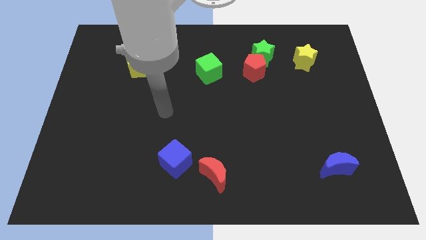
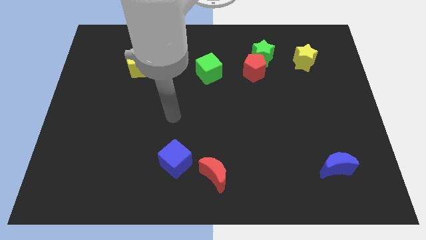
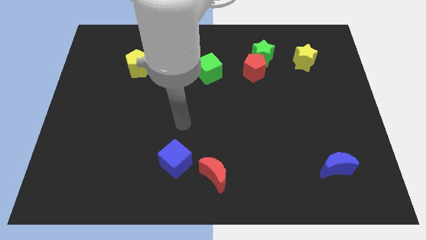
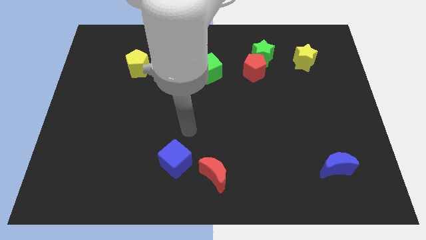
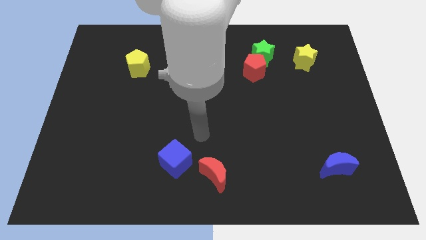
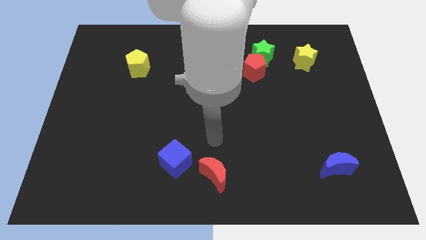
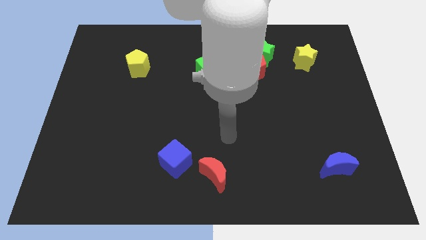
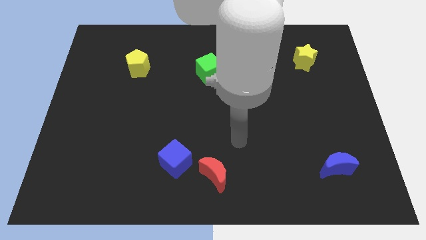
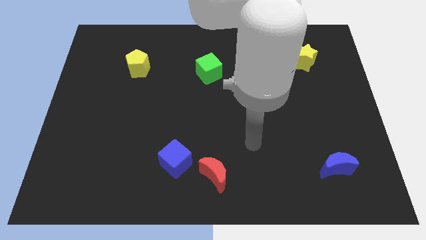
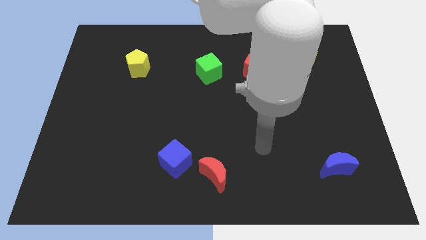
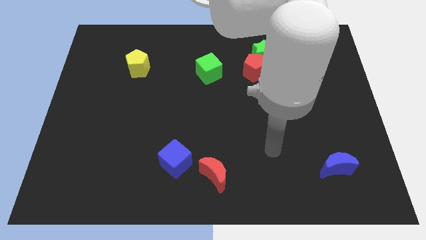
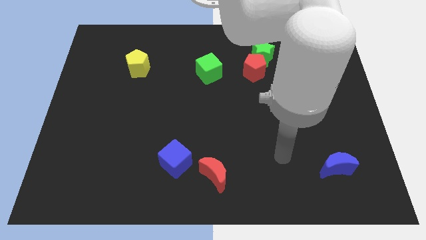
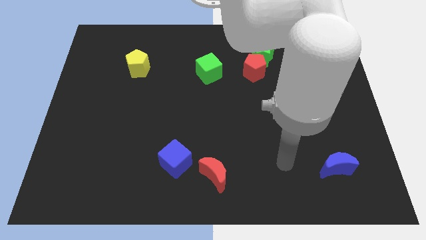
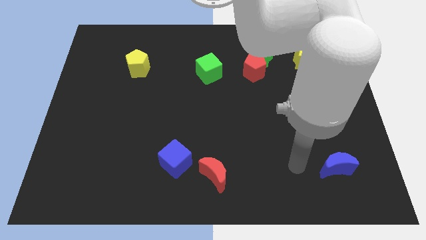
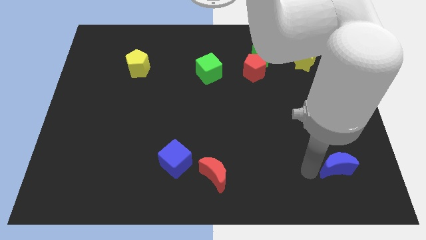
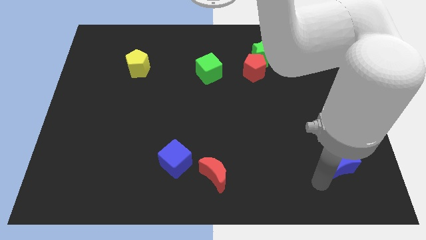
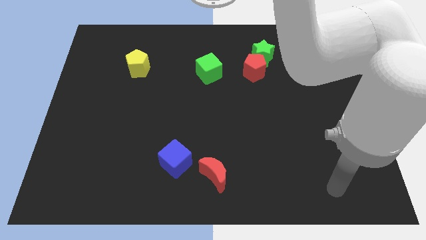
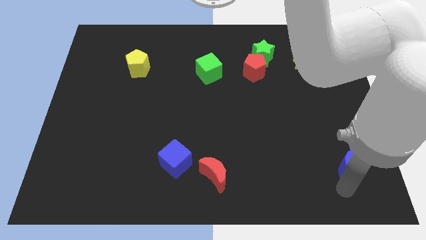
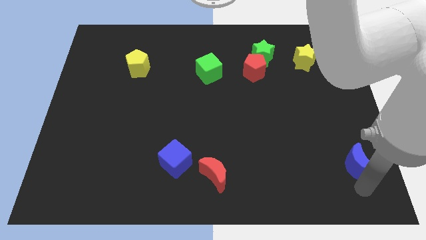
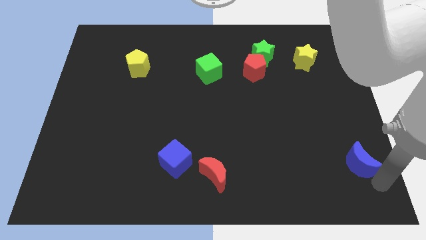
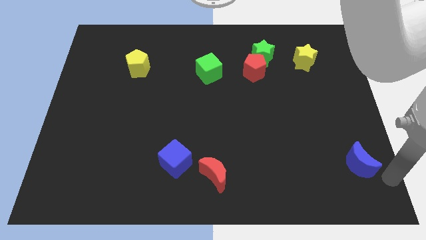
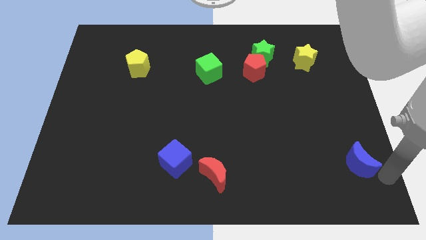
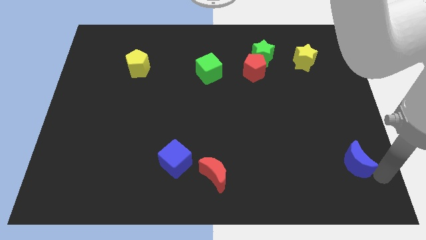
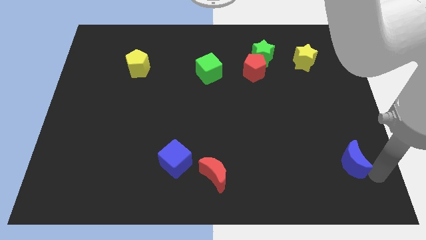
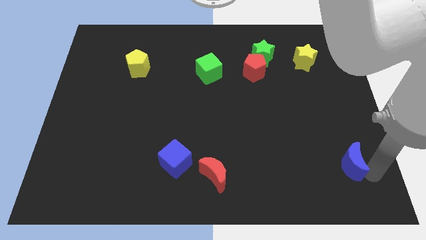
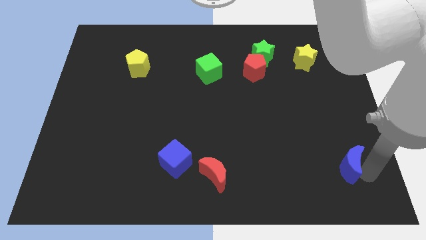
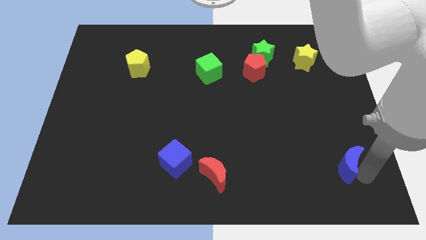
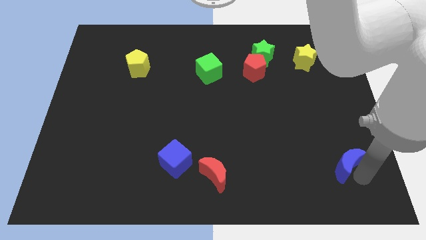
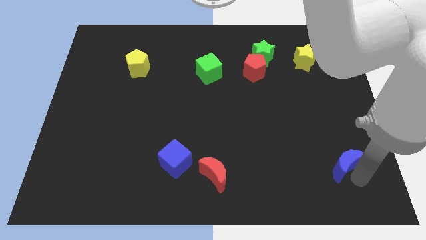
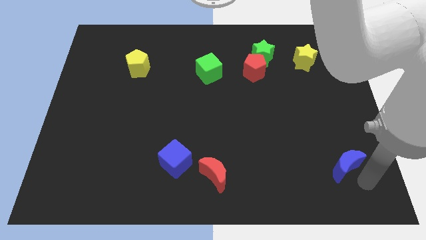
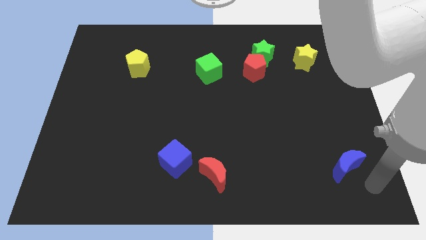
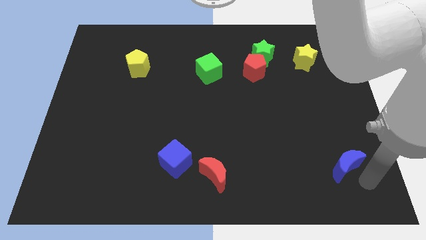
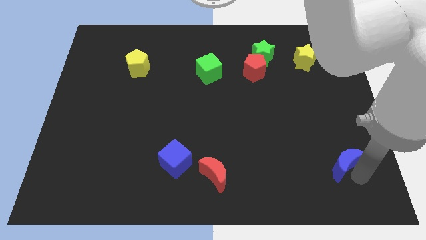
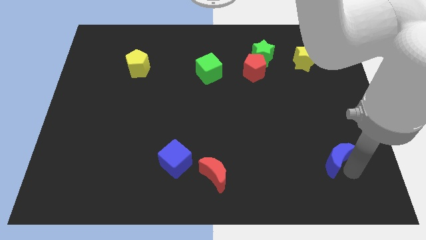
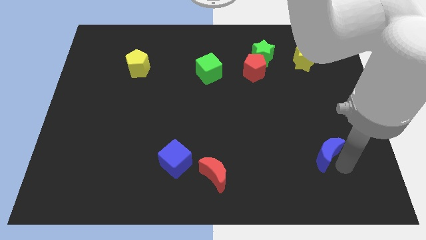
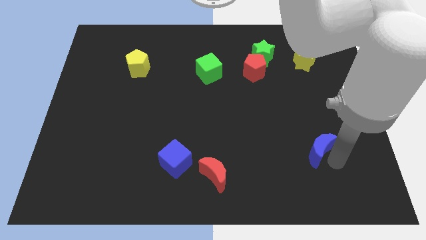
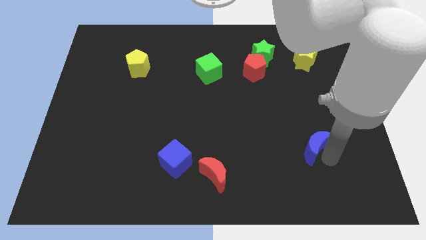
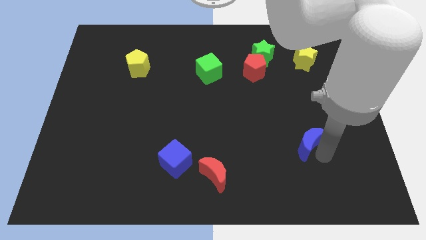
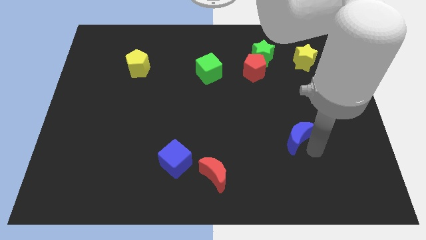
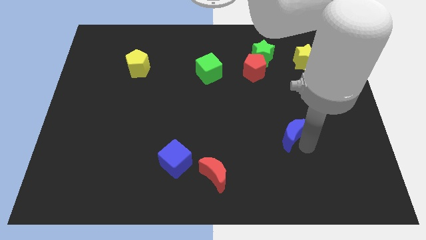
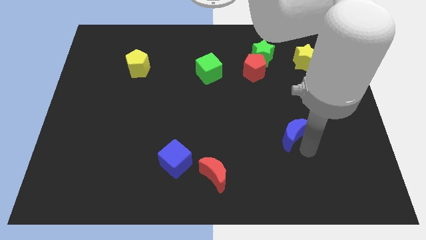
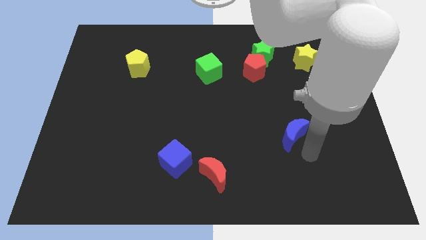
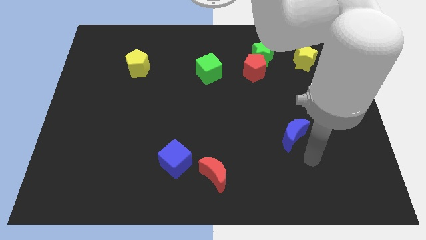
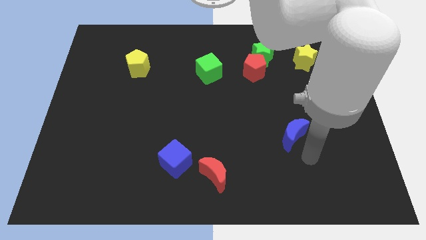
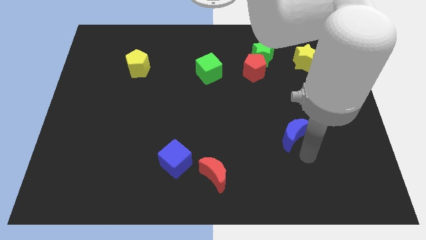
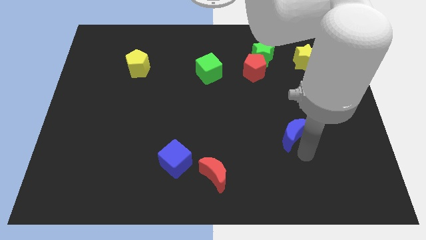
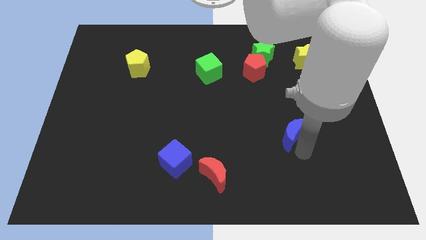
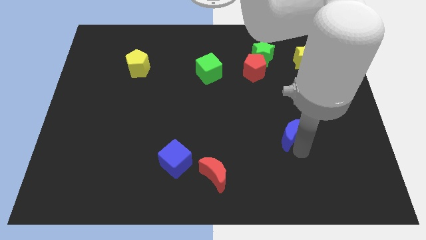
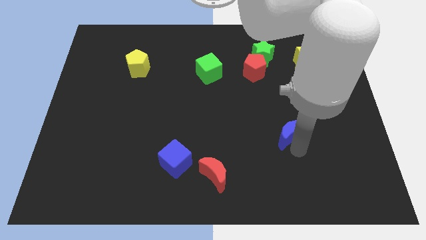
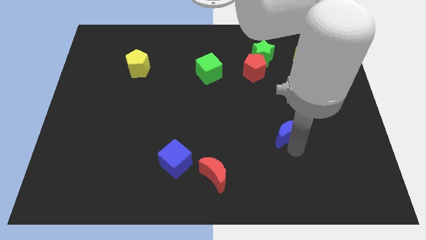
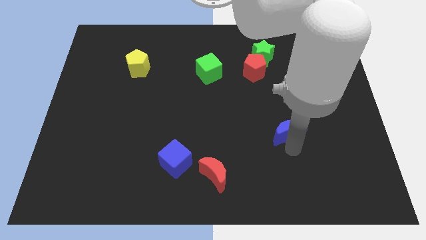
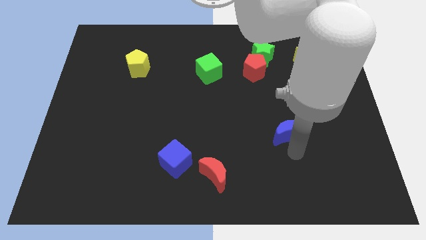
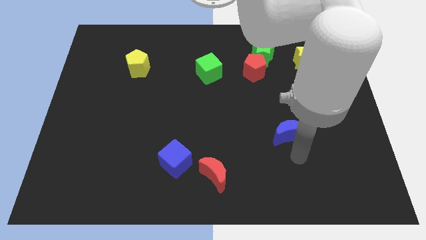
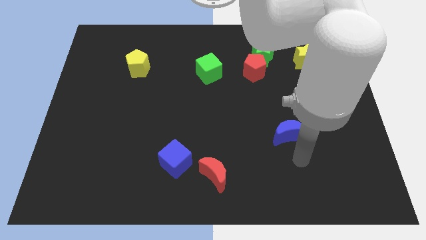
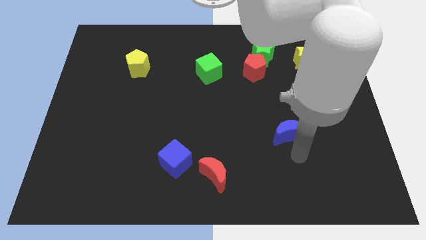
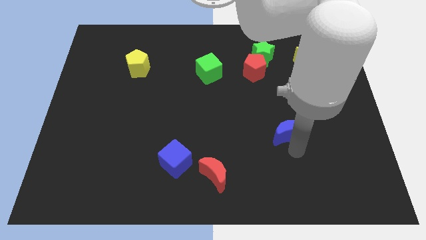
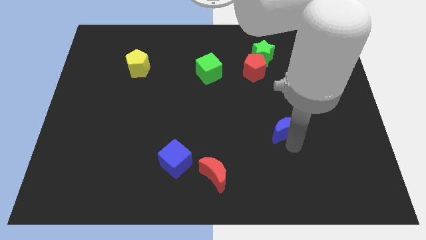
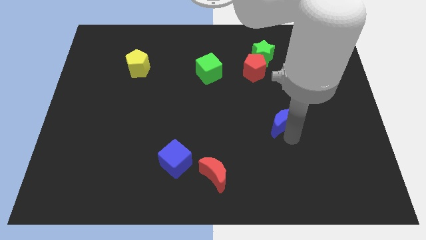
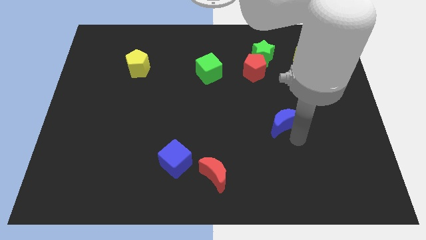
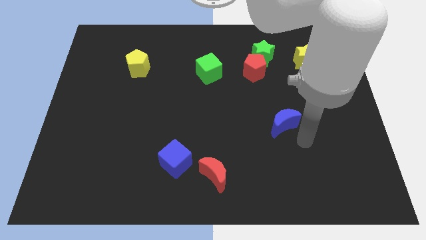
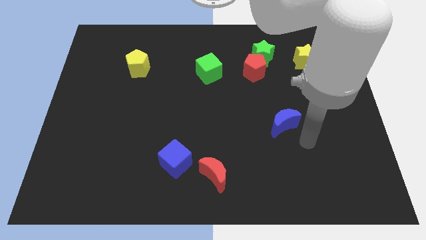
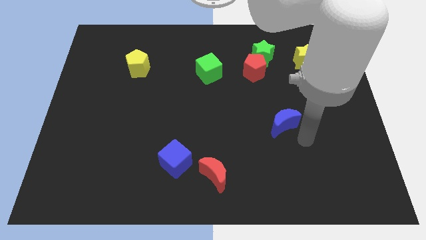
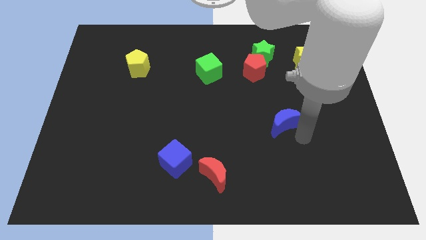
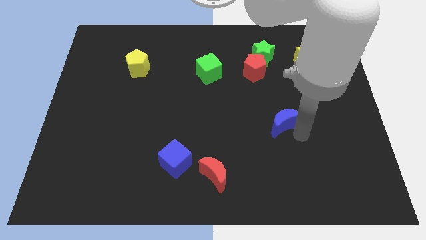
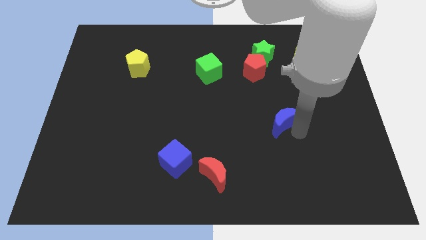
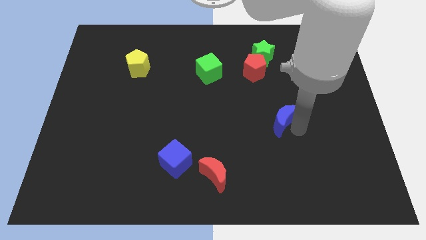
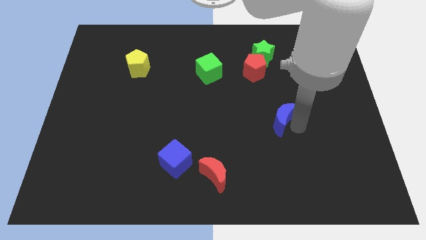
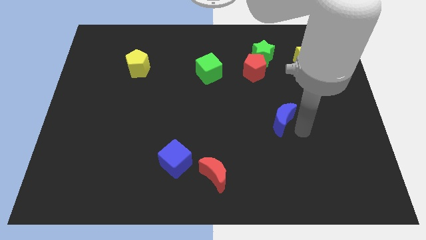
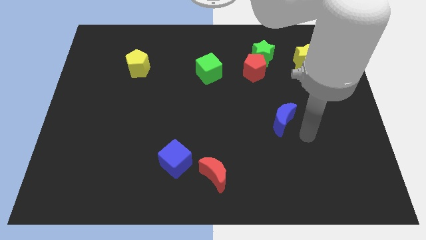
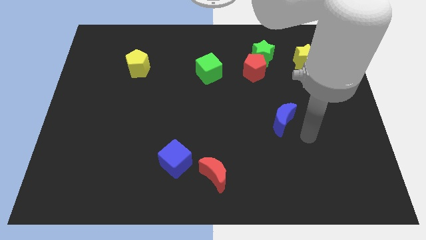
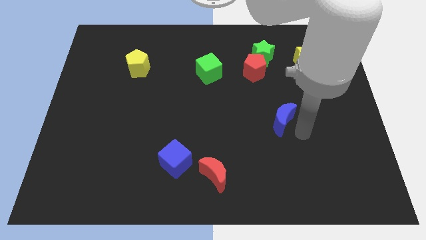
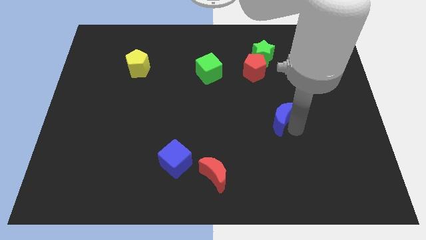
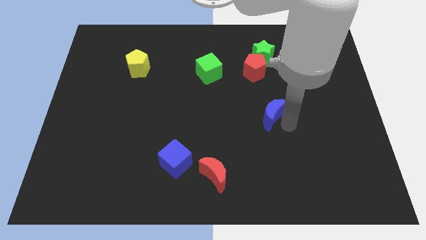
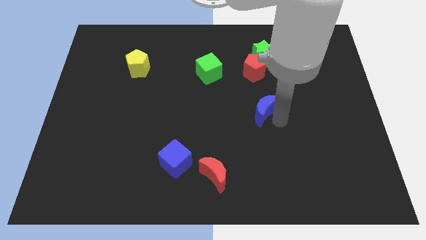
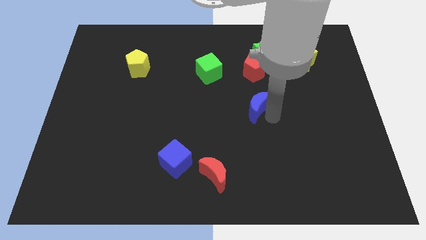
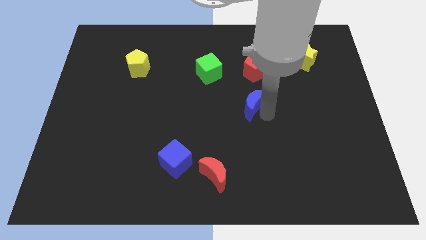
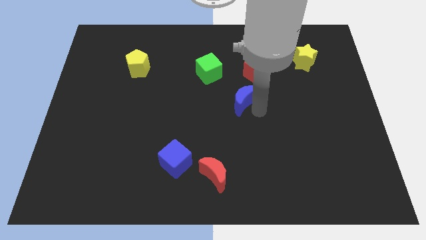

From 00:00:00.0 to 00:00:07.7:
push the blue moon to the bottom right side of the green cube

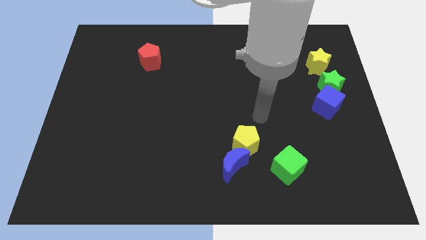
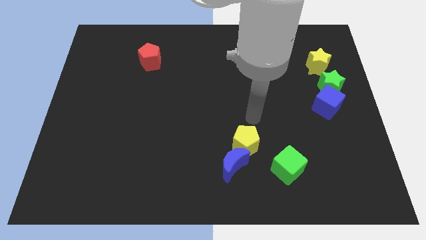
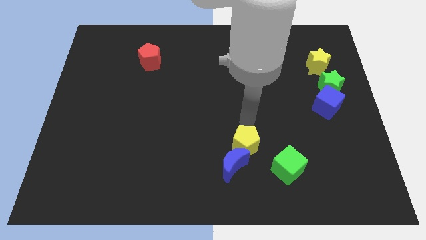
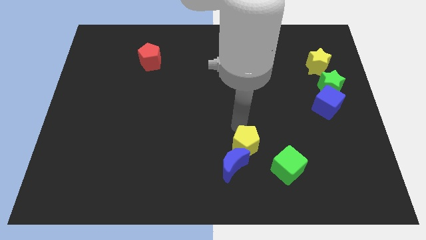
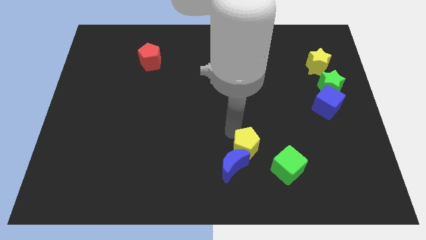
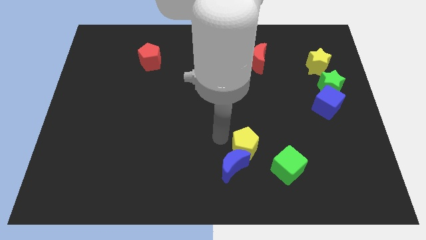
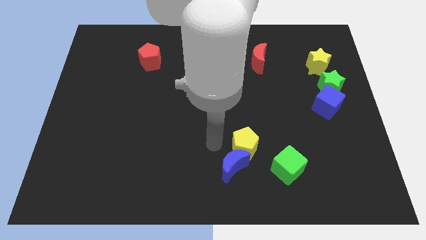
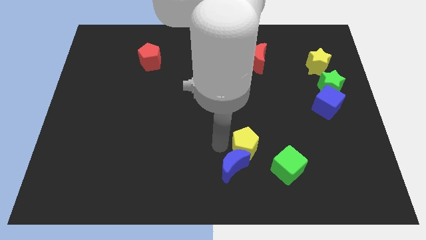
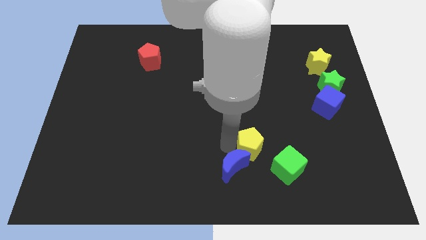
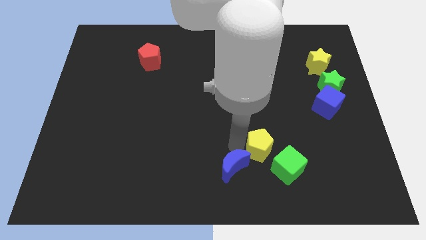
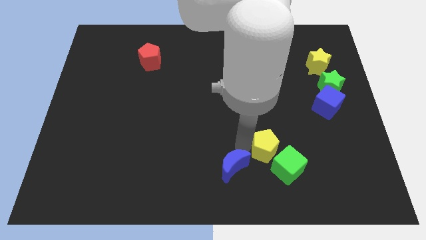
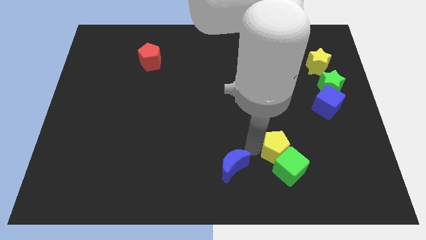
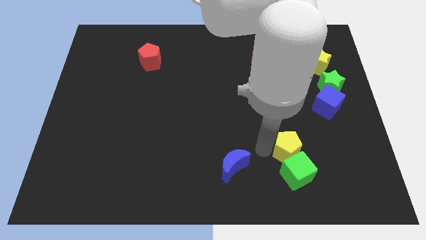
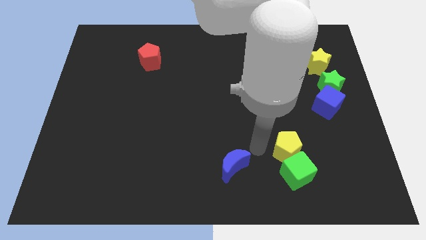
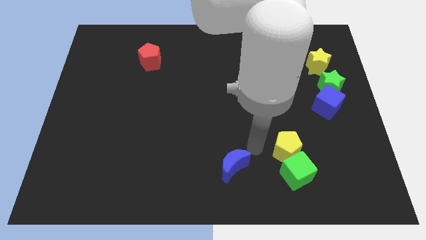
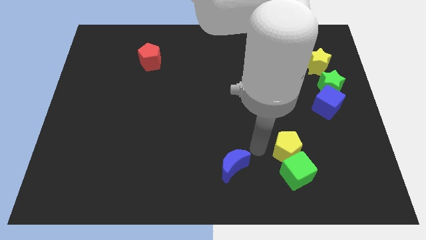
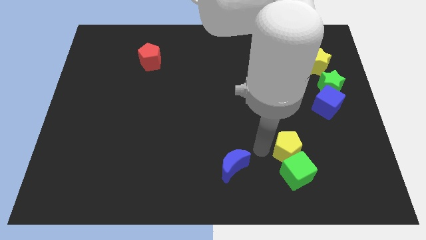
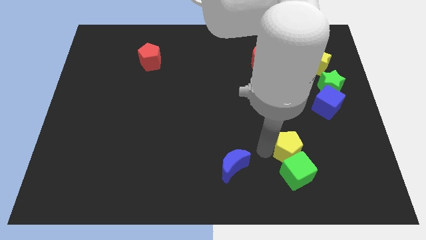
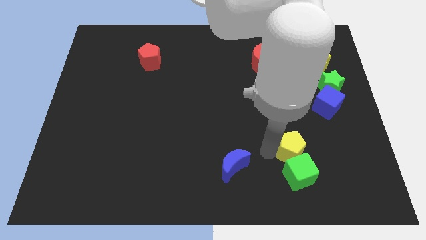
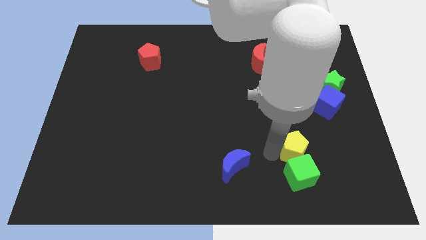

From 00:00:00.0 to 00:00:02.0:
slide the yellow pentagon to the top right side of the green cube
